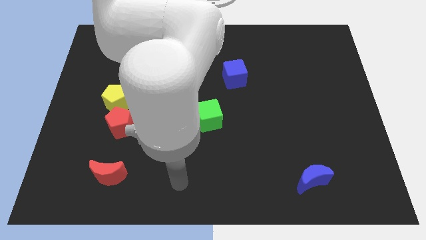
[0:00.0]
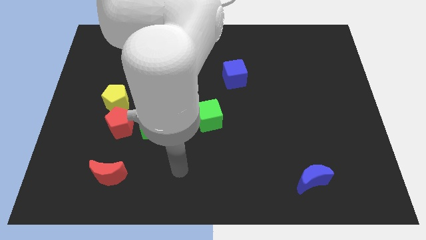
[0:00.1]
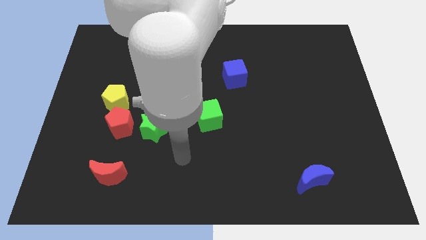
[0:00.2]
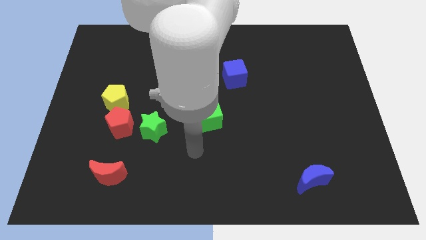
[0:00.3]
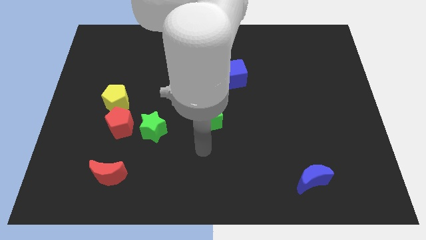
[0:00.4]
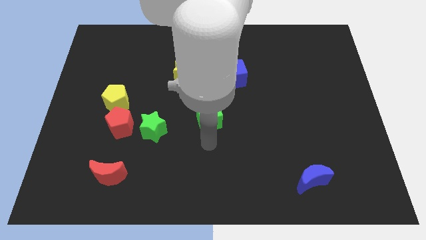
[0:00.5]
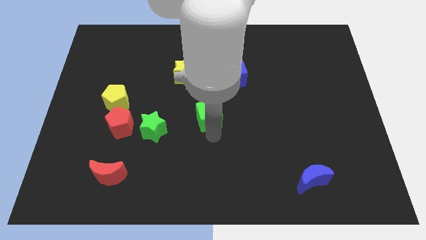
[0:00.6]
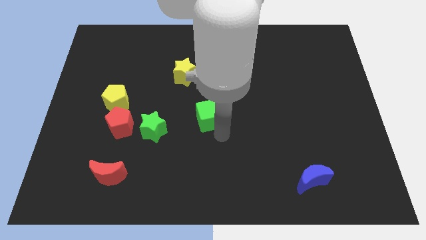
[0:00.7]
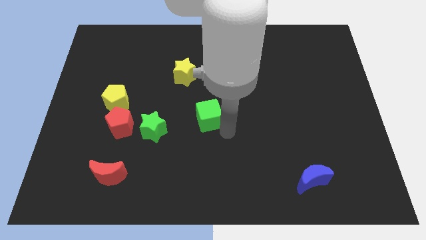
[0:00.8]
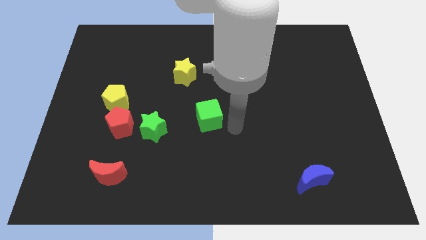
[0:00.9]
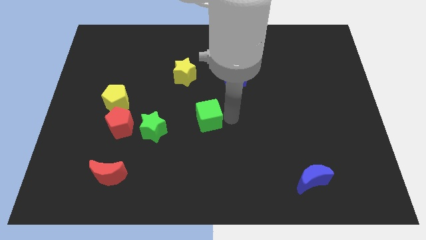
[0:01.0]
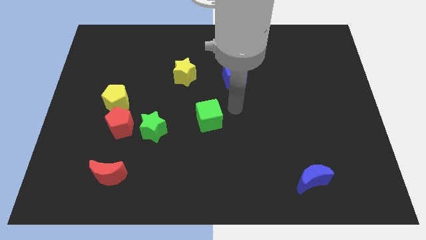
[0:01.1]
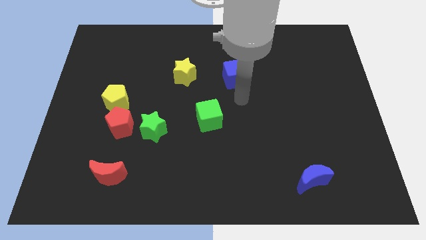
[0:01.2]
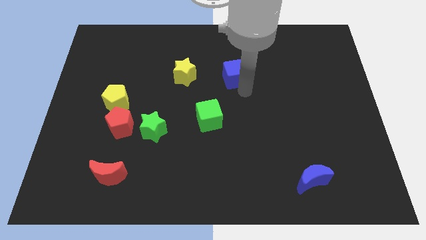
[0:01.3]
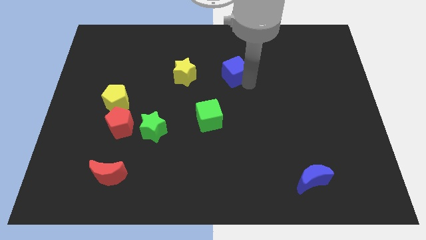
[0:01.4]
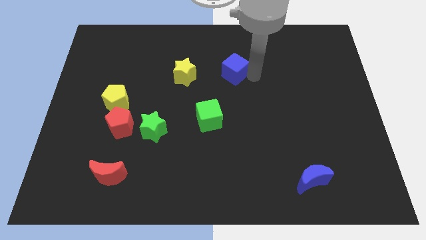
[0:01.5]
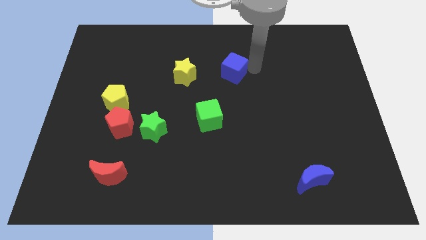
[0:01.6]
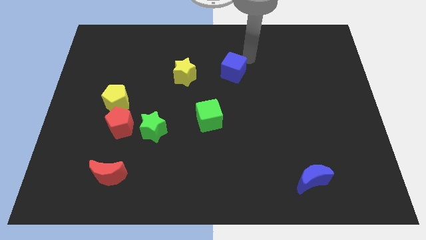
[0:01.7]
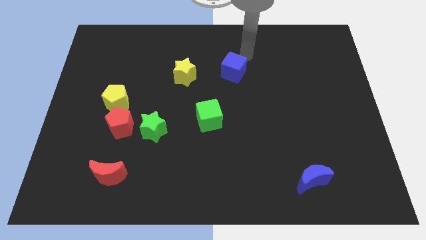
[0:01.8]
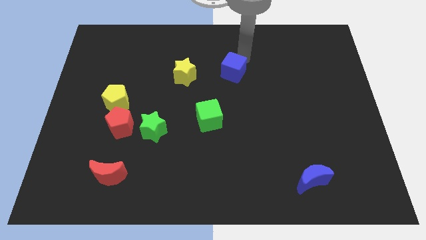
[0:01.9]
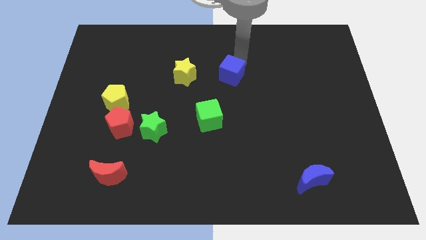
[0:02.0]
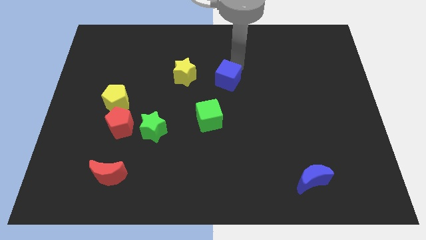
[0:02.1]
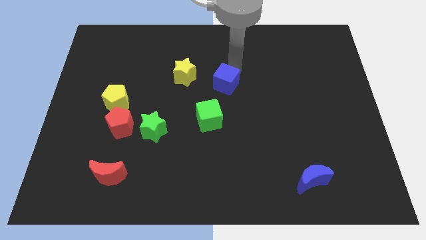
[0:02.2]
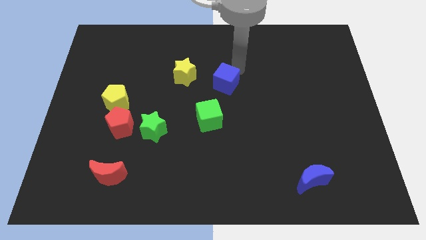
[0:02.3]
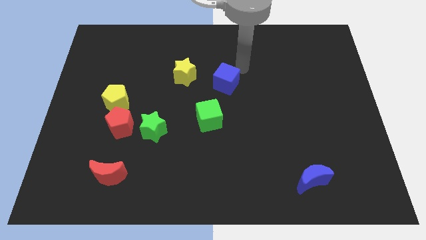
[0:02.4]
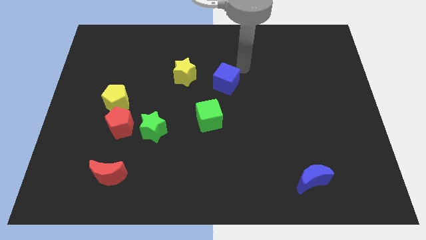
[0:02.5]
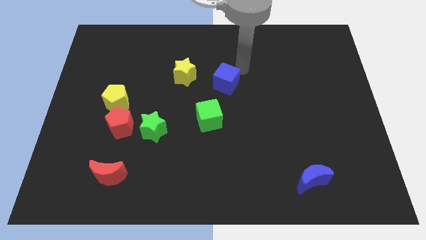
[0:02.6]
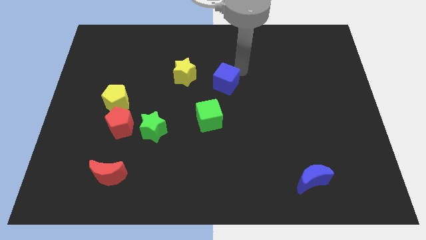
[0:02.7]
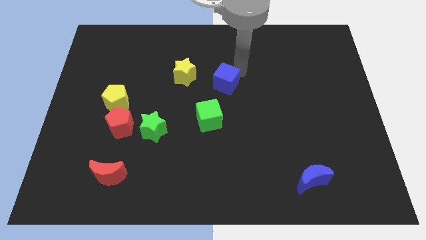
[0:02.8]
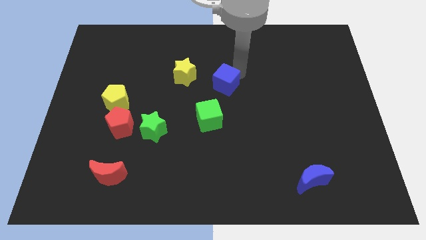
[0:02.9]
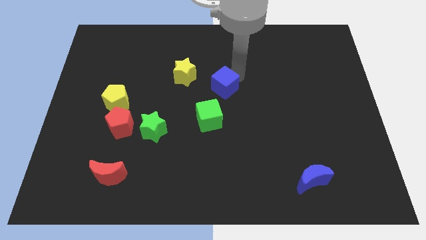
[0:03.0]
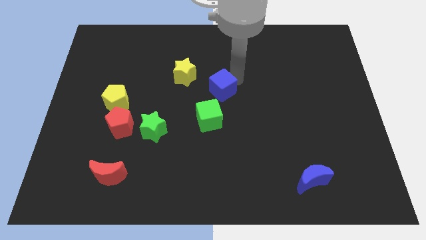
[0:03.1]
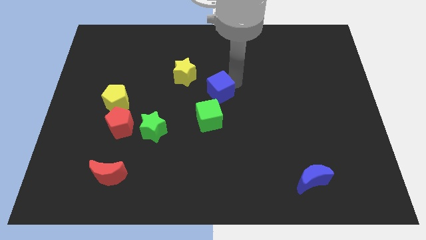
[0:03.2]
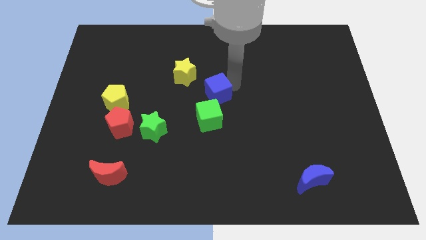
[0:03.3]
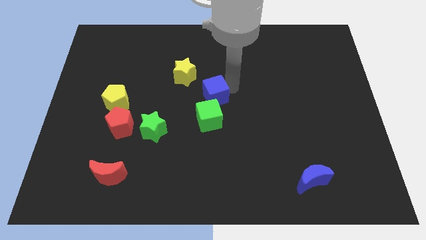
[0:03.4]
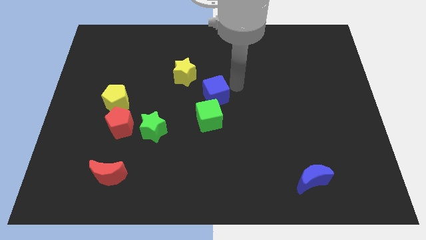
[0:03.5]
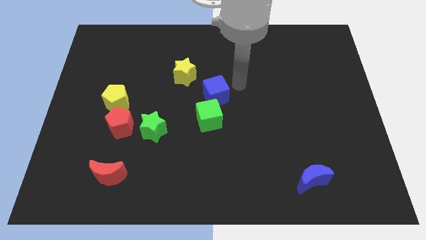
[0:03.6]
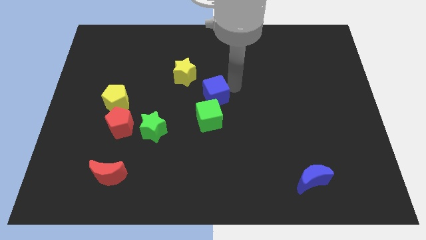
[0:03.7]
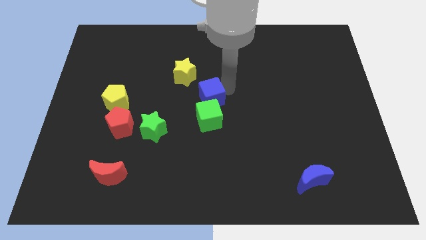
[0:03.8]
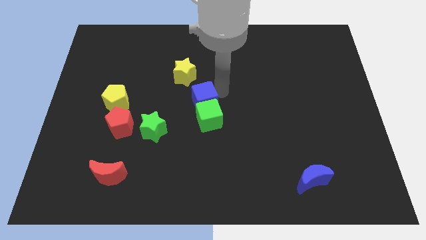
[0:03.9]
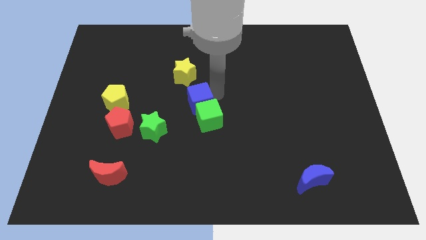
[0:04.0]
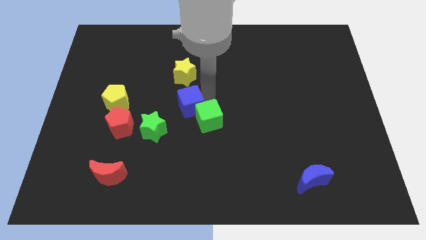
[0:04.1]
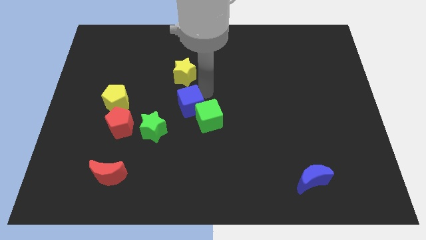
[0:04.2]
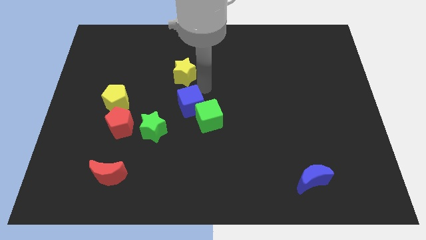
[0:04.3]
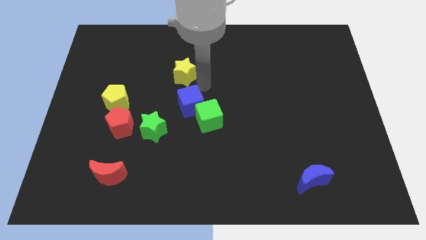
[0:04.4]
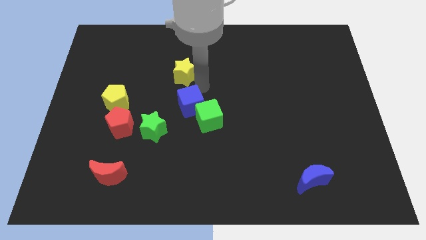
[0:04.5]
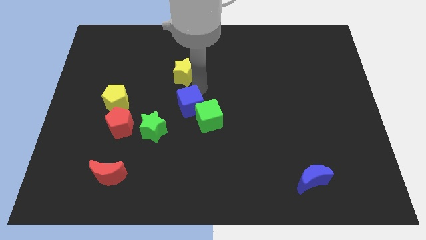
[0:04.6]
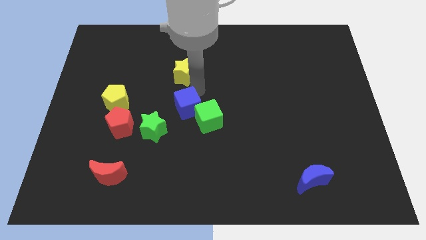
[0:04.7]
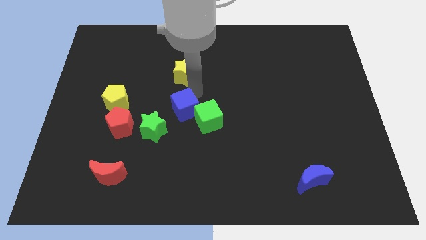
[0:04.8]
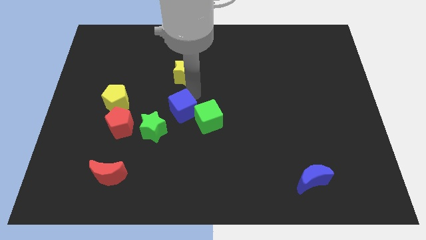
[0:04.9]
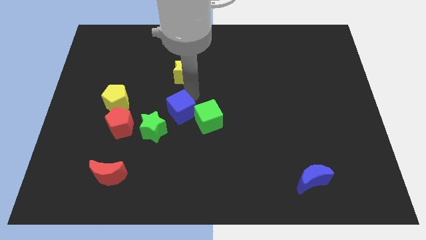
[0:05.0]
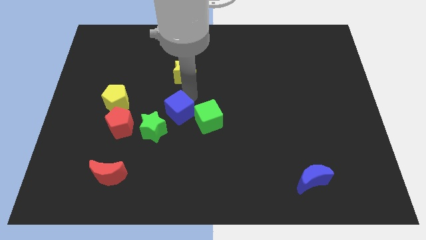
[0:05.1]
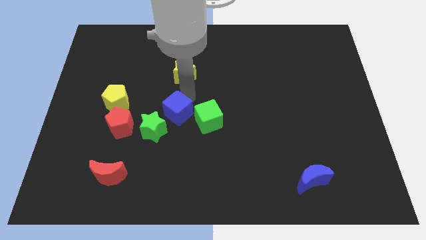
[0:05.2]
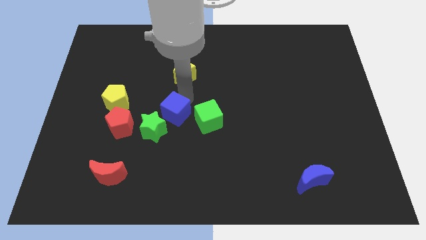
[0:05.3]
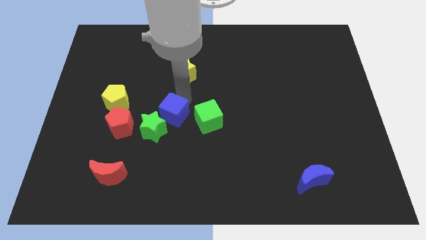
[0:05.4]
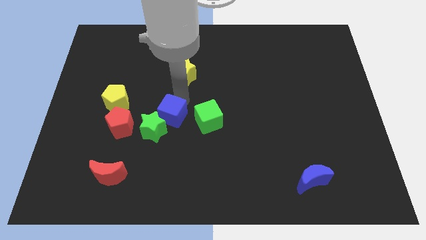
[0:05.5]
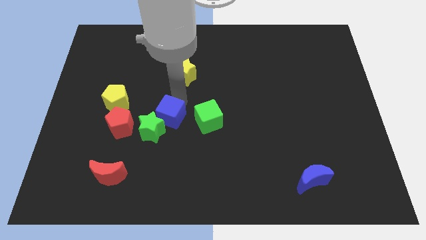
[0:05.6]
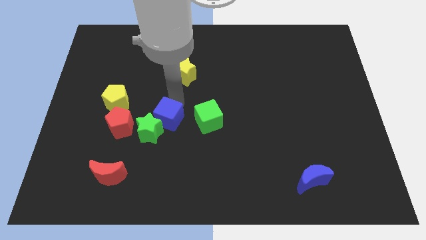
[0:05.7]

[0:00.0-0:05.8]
move the blue cube downwards and left

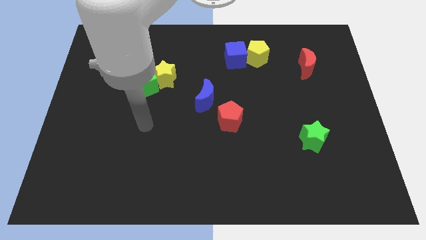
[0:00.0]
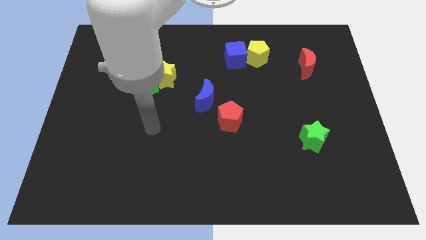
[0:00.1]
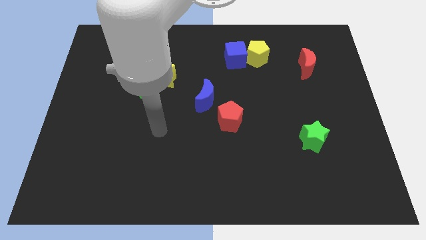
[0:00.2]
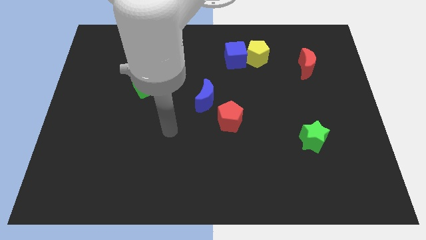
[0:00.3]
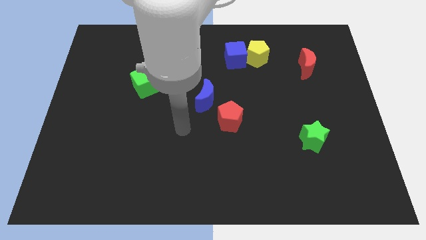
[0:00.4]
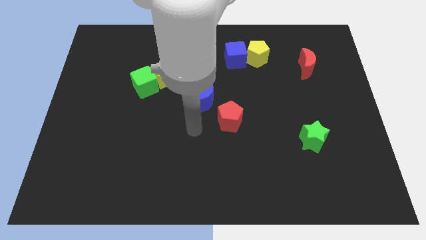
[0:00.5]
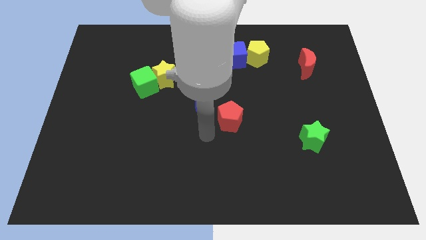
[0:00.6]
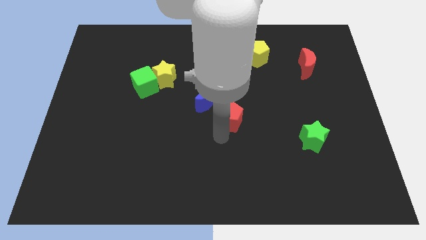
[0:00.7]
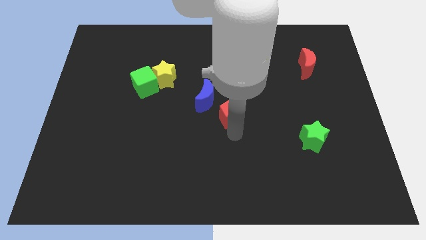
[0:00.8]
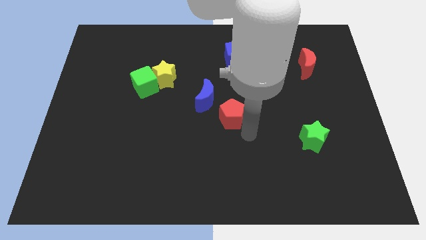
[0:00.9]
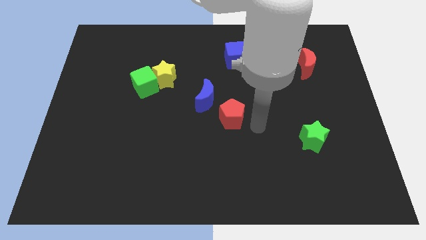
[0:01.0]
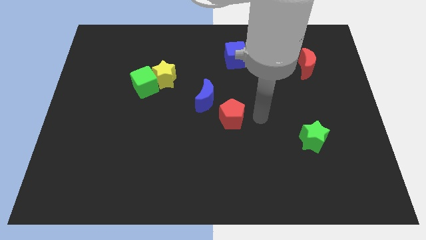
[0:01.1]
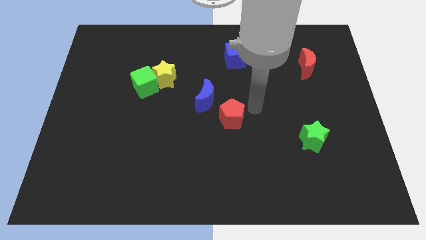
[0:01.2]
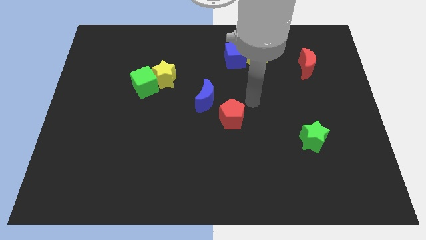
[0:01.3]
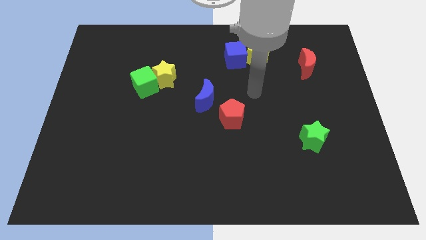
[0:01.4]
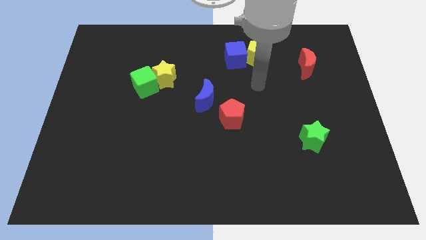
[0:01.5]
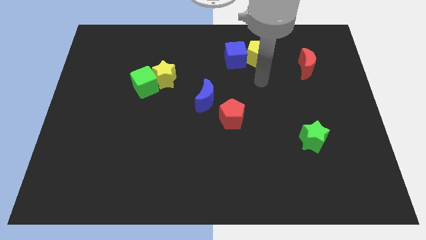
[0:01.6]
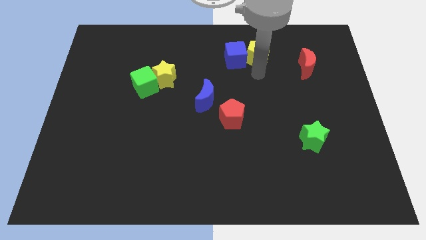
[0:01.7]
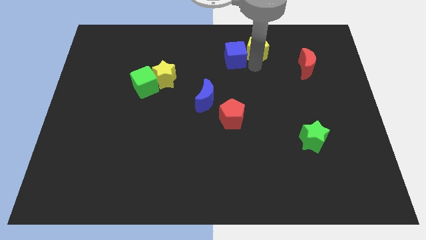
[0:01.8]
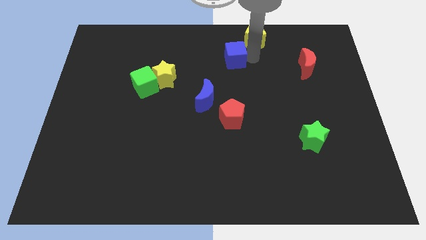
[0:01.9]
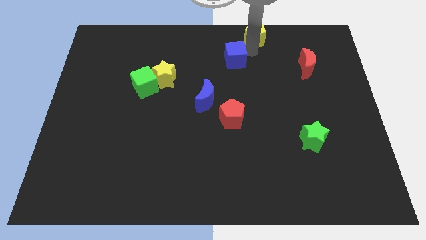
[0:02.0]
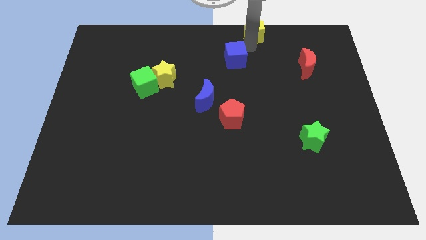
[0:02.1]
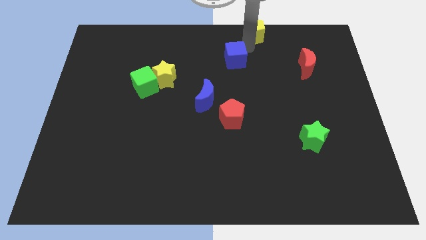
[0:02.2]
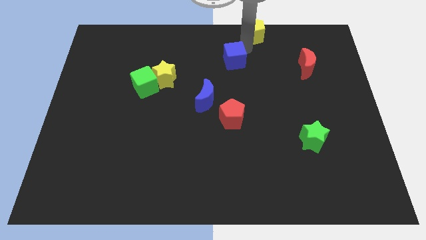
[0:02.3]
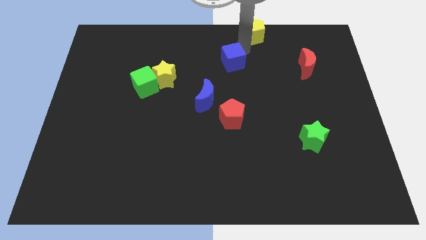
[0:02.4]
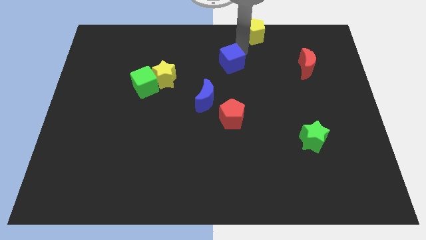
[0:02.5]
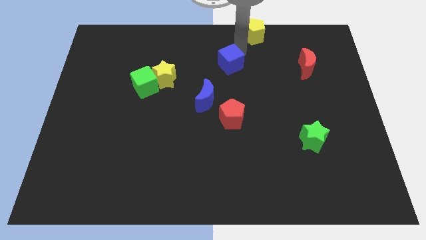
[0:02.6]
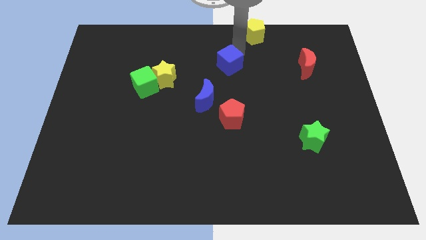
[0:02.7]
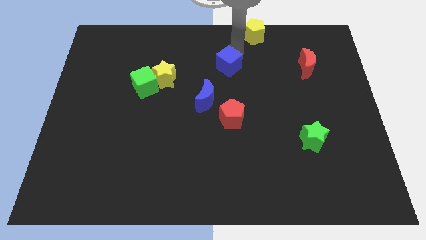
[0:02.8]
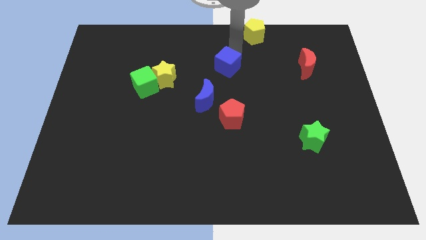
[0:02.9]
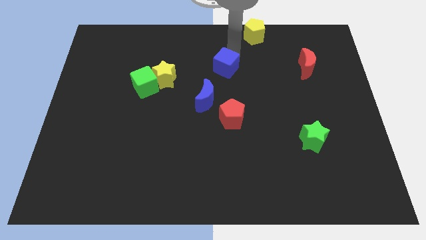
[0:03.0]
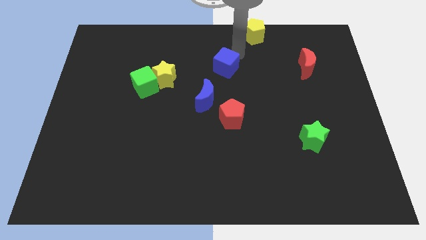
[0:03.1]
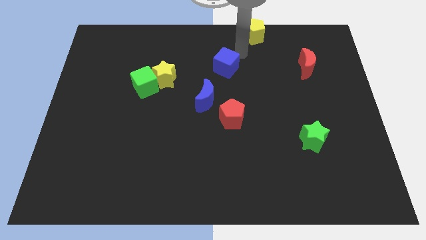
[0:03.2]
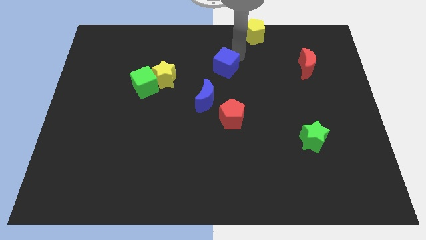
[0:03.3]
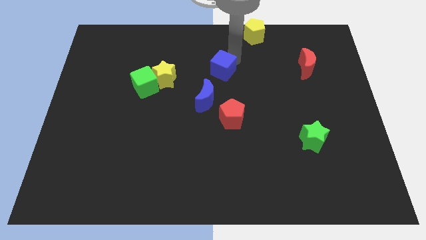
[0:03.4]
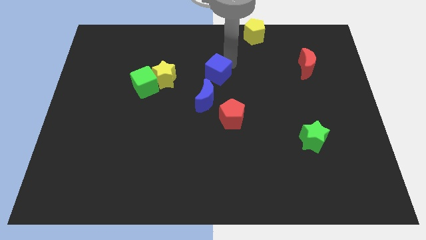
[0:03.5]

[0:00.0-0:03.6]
slide the blue cube a bit down and left diagonally
